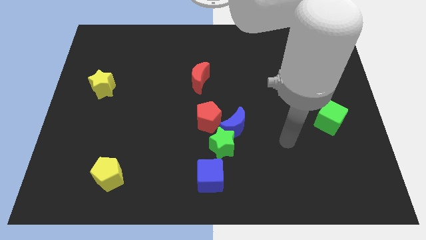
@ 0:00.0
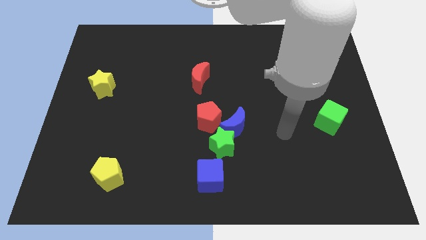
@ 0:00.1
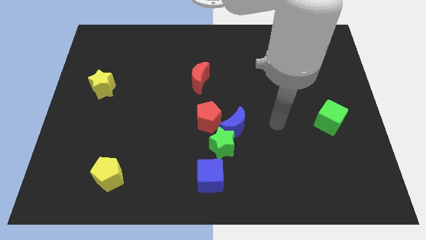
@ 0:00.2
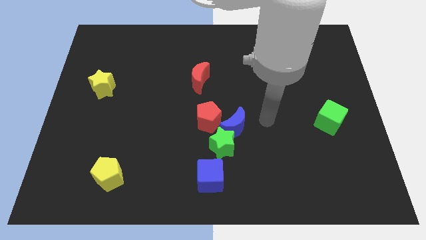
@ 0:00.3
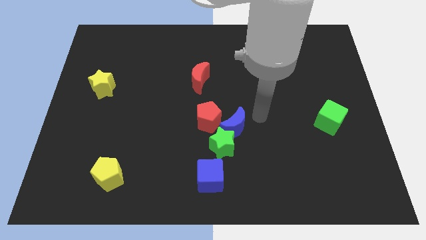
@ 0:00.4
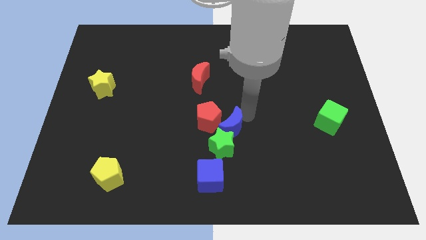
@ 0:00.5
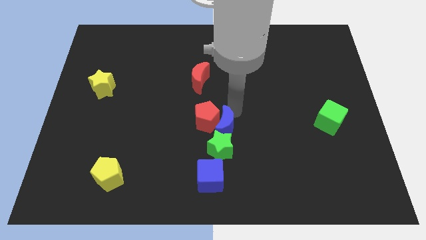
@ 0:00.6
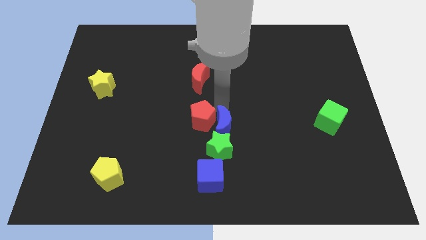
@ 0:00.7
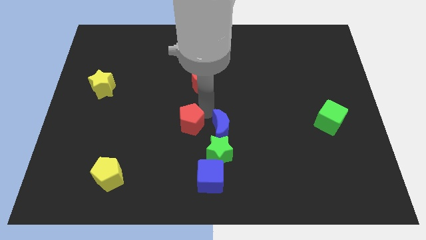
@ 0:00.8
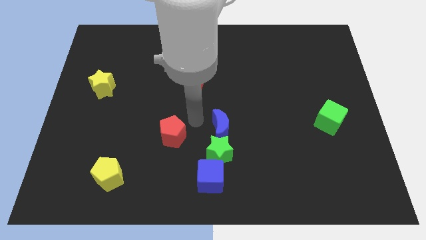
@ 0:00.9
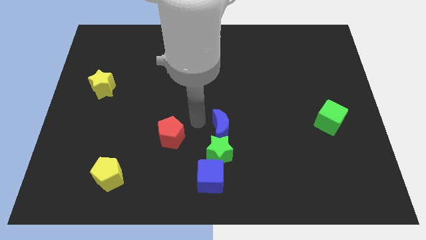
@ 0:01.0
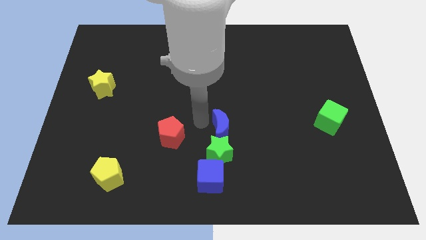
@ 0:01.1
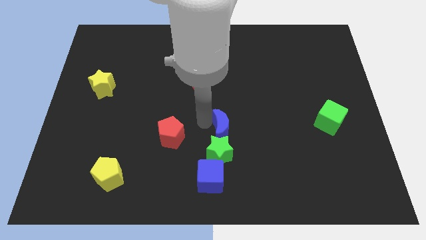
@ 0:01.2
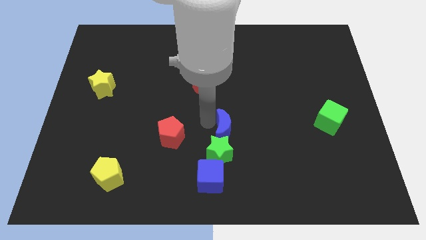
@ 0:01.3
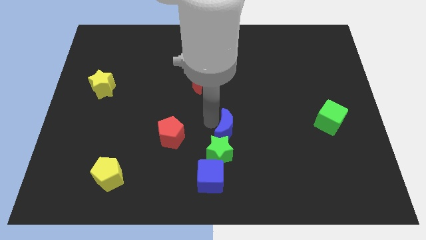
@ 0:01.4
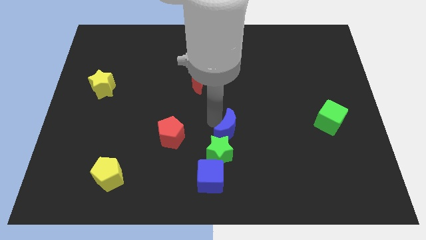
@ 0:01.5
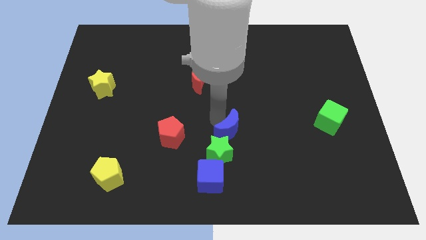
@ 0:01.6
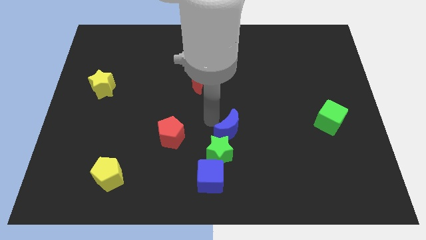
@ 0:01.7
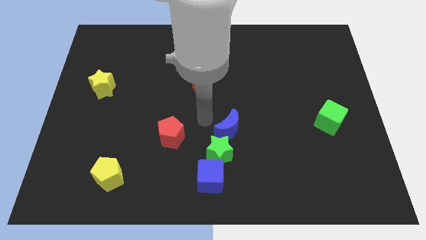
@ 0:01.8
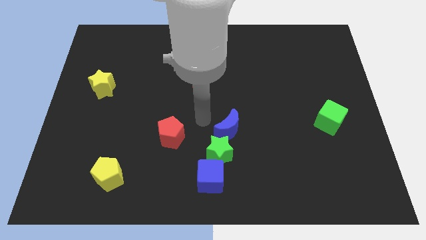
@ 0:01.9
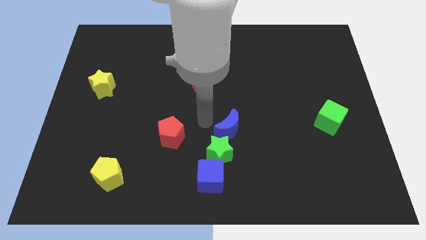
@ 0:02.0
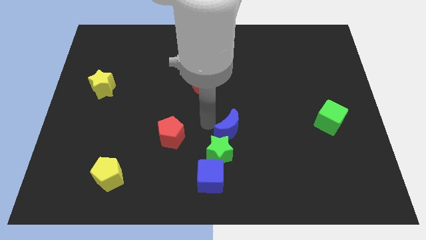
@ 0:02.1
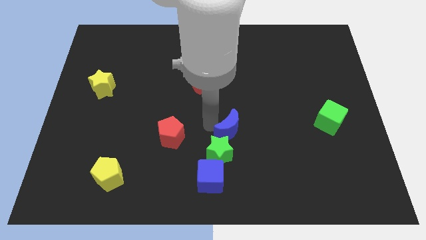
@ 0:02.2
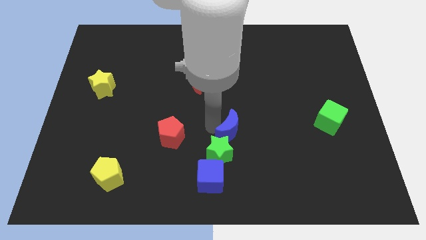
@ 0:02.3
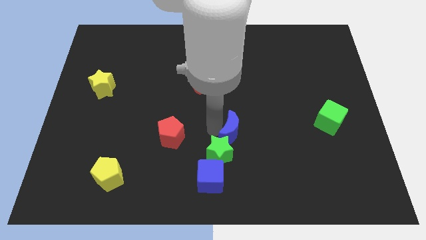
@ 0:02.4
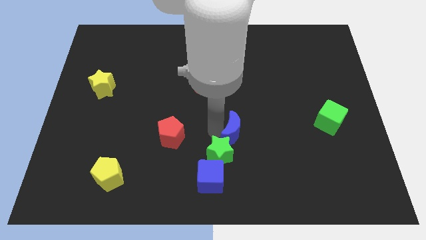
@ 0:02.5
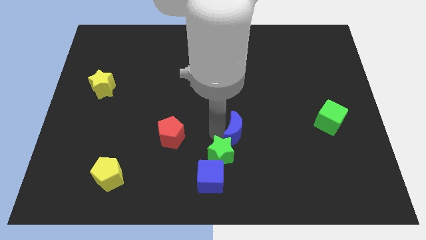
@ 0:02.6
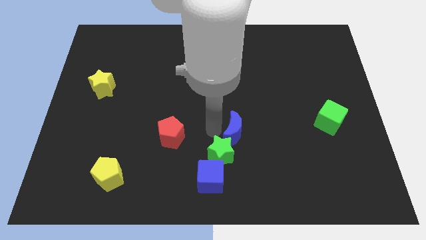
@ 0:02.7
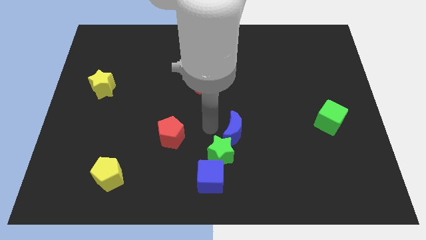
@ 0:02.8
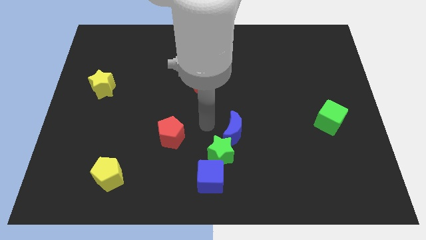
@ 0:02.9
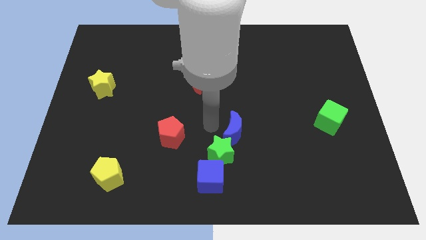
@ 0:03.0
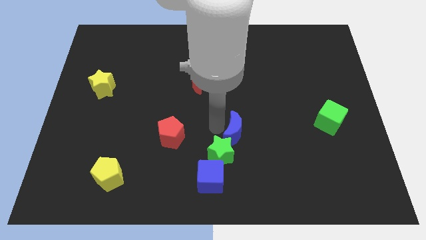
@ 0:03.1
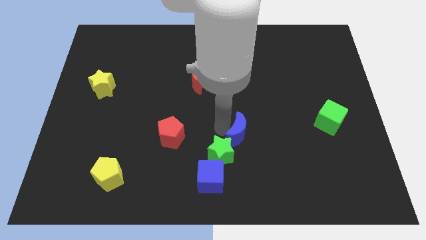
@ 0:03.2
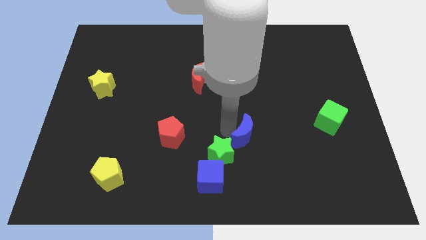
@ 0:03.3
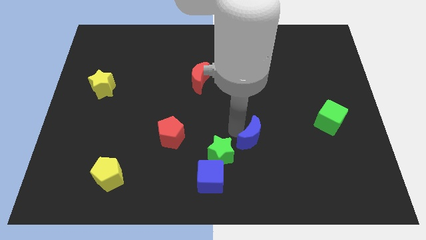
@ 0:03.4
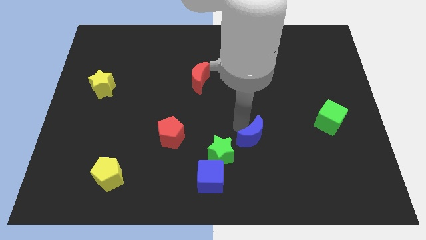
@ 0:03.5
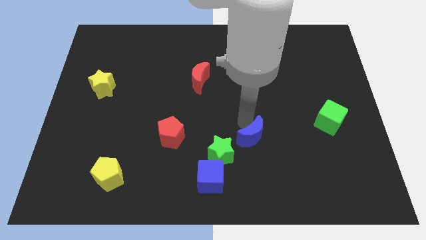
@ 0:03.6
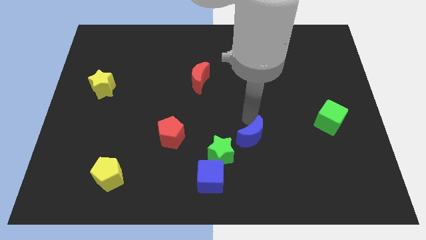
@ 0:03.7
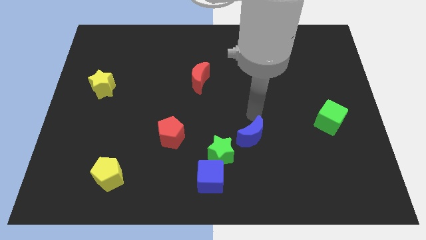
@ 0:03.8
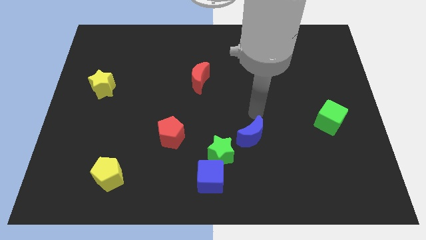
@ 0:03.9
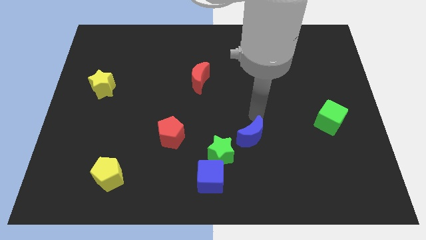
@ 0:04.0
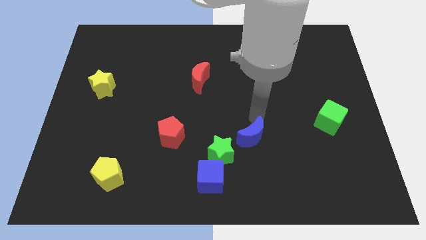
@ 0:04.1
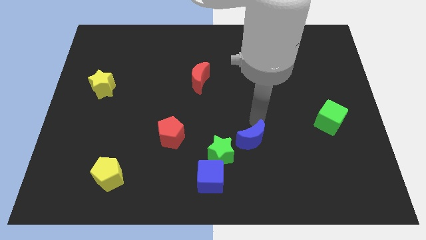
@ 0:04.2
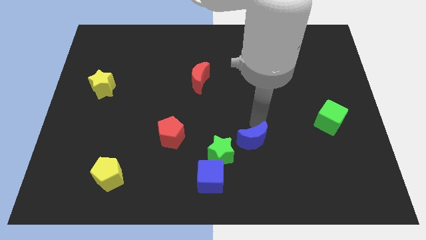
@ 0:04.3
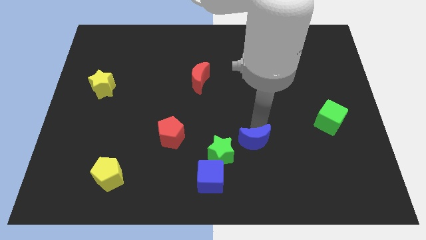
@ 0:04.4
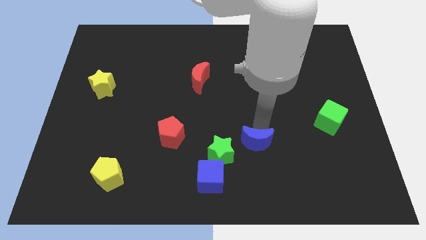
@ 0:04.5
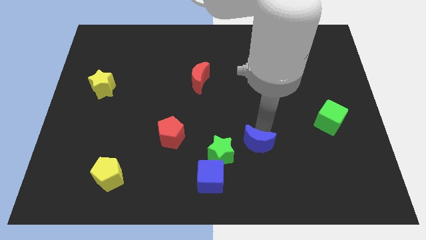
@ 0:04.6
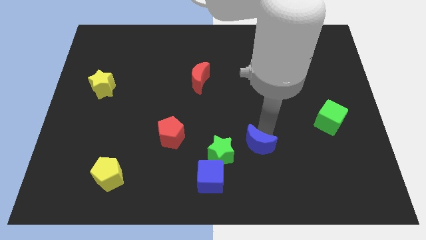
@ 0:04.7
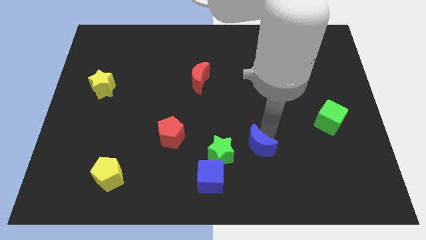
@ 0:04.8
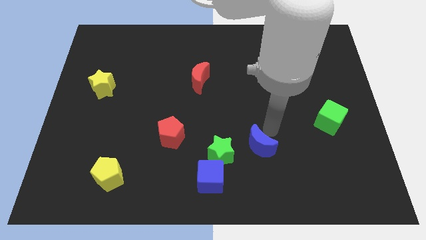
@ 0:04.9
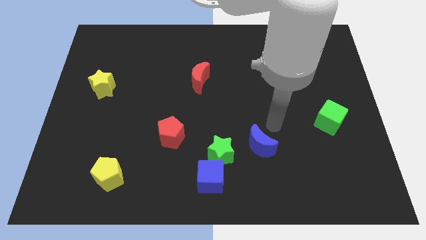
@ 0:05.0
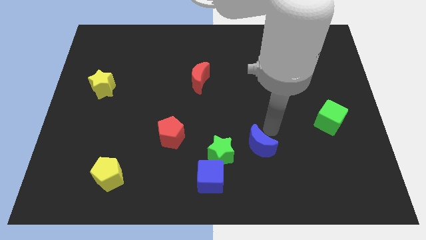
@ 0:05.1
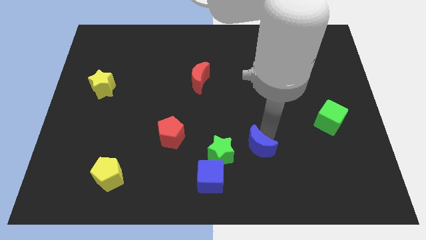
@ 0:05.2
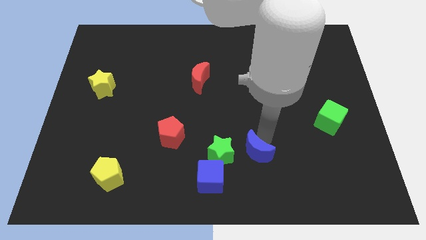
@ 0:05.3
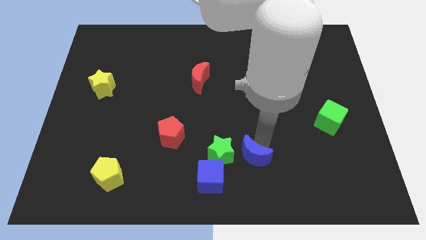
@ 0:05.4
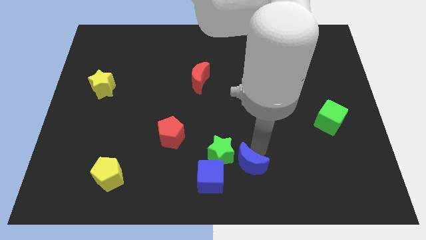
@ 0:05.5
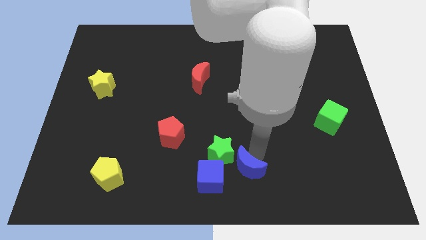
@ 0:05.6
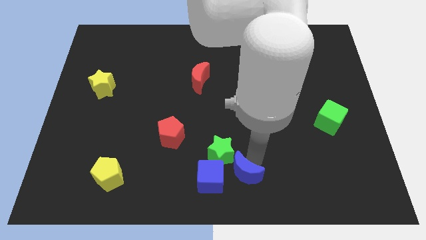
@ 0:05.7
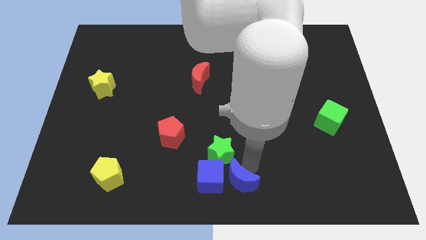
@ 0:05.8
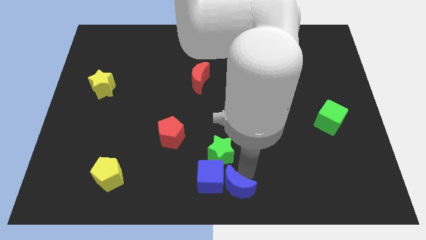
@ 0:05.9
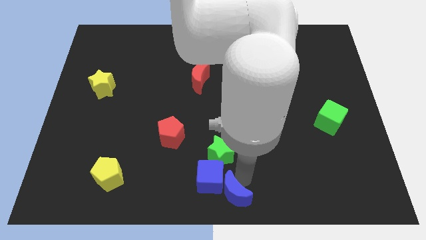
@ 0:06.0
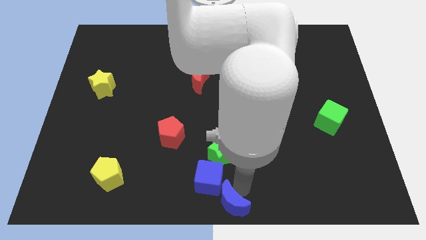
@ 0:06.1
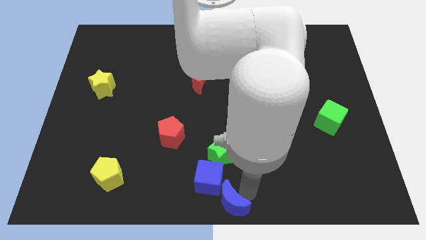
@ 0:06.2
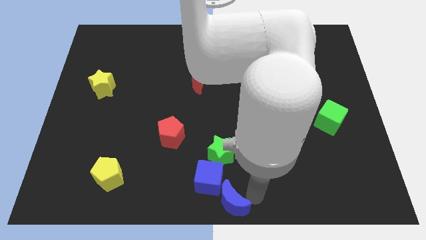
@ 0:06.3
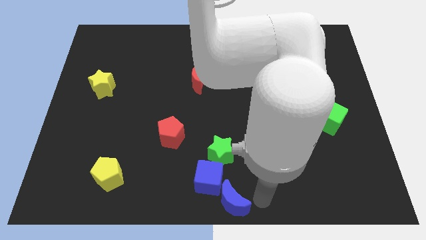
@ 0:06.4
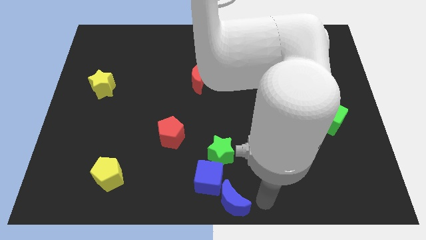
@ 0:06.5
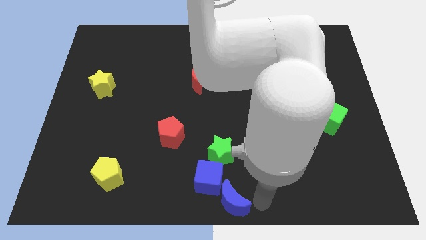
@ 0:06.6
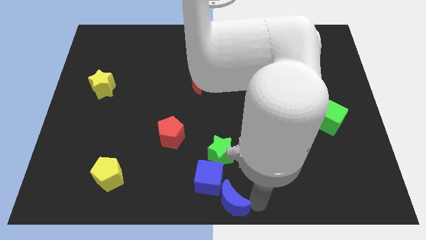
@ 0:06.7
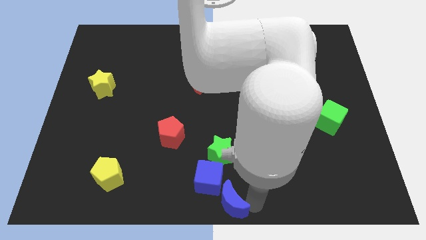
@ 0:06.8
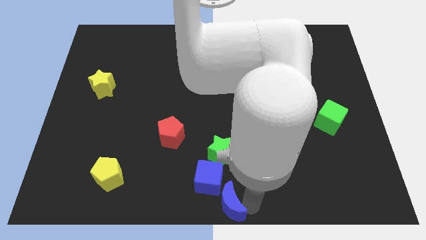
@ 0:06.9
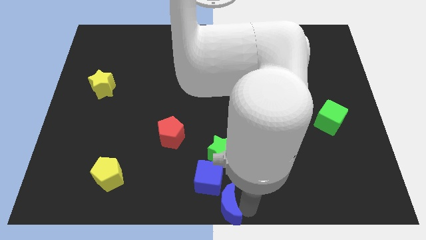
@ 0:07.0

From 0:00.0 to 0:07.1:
slightly move the blue moon downwards and then left

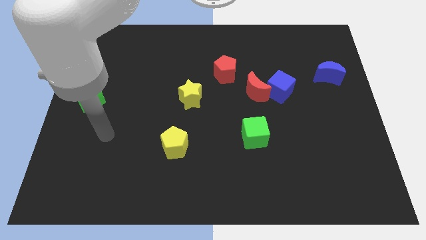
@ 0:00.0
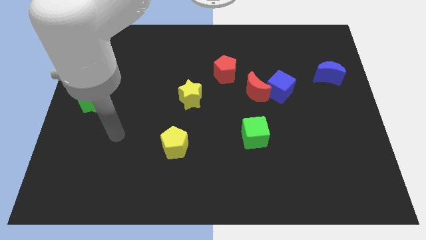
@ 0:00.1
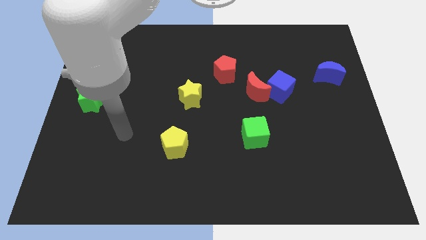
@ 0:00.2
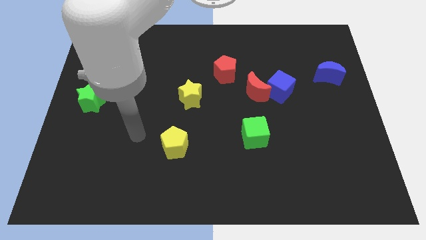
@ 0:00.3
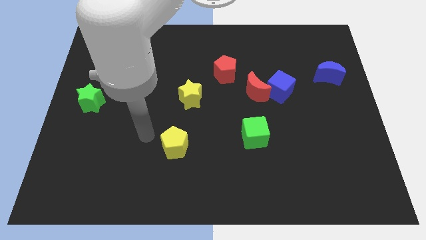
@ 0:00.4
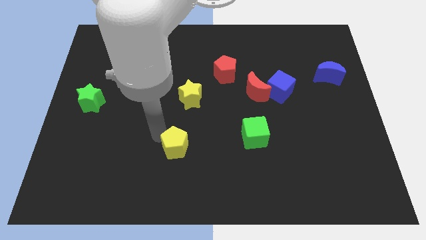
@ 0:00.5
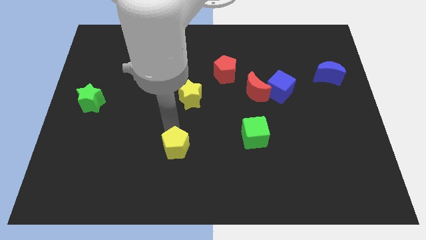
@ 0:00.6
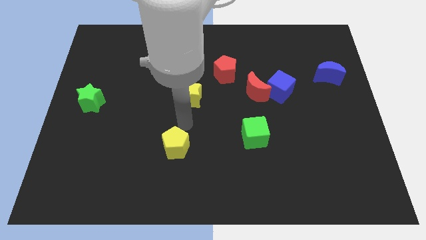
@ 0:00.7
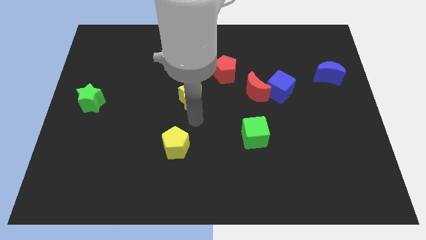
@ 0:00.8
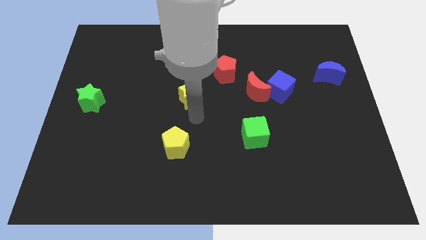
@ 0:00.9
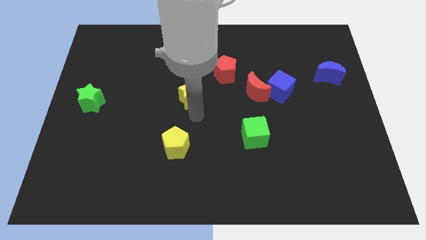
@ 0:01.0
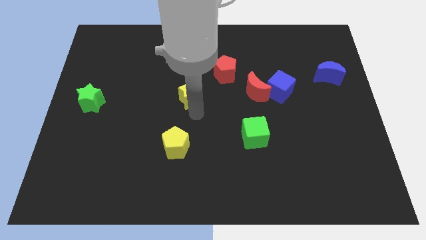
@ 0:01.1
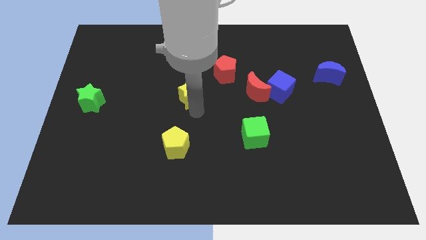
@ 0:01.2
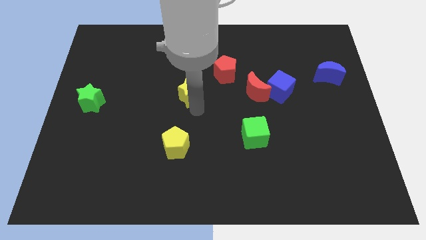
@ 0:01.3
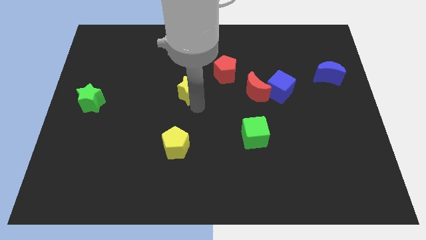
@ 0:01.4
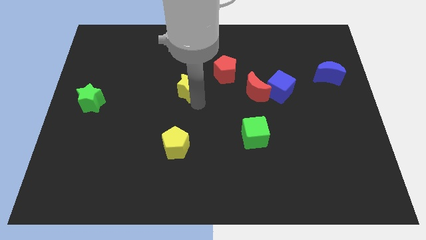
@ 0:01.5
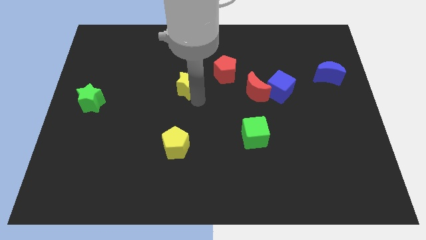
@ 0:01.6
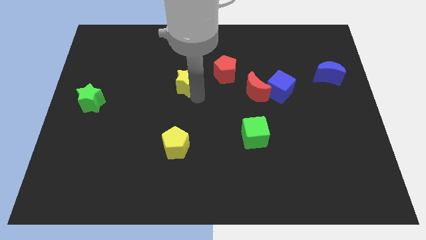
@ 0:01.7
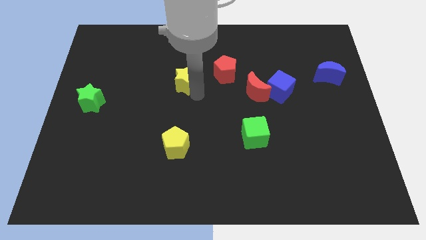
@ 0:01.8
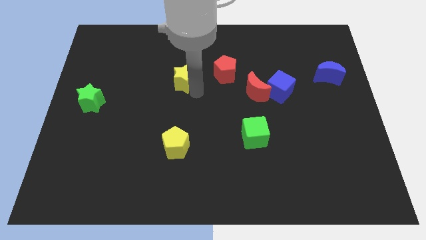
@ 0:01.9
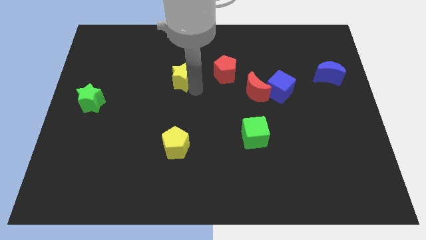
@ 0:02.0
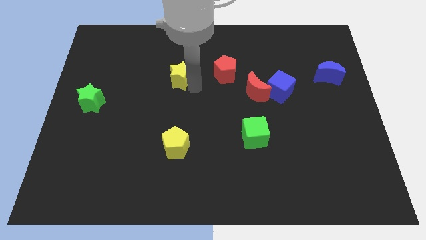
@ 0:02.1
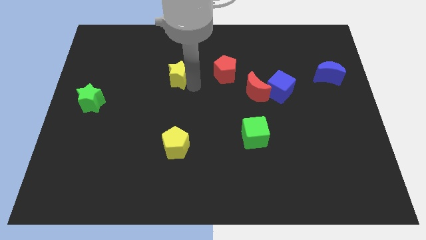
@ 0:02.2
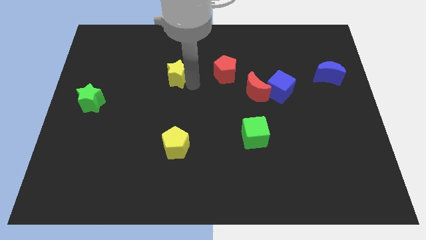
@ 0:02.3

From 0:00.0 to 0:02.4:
slightly move the yellow star diagonally up and left
